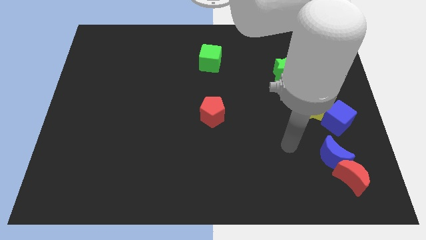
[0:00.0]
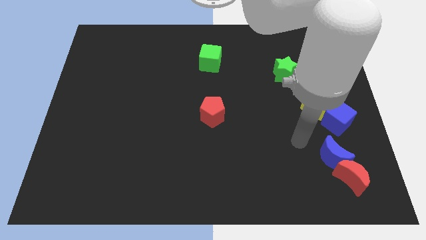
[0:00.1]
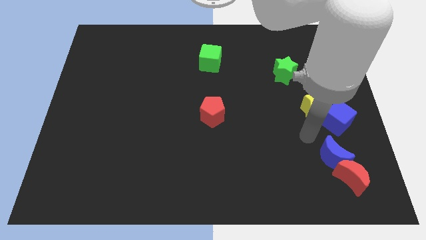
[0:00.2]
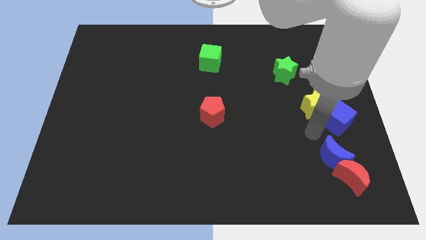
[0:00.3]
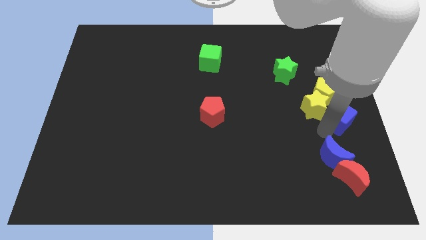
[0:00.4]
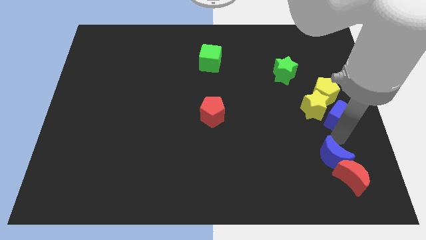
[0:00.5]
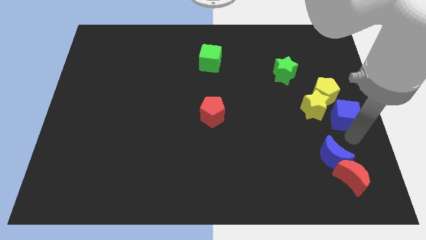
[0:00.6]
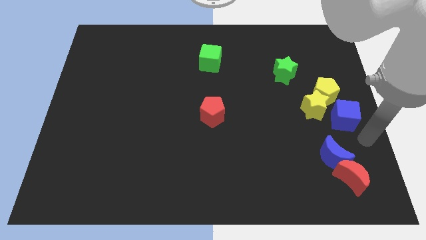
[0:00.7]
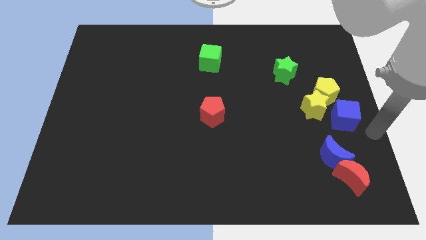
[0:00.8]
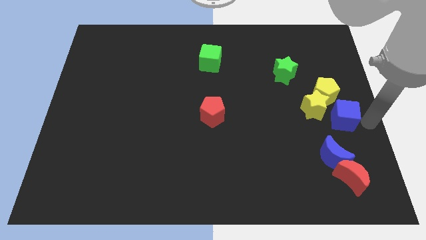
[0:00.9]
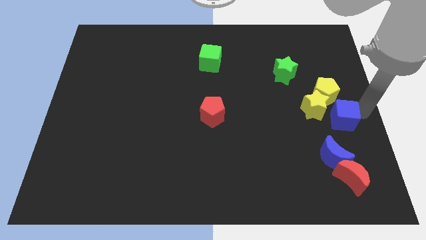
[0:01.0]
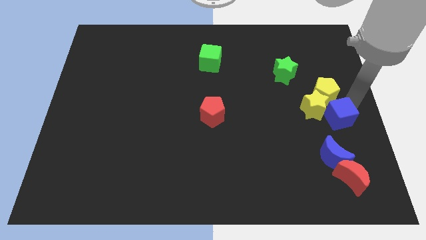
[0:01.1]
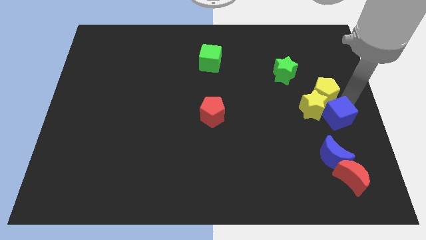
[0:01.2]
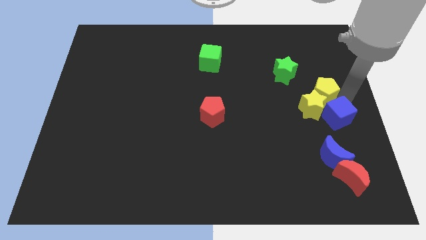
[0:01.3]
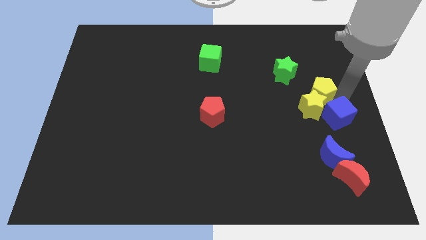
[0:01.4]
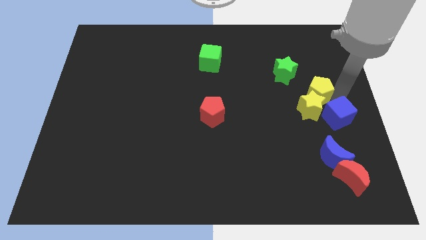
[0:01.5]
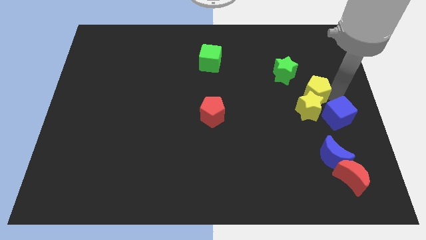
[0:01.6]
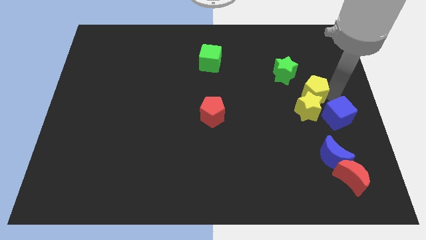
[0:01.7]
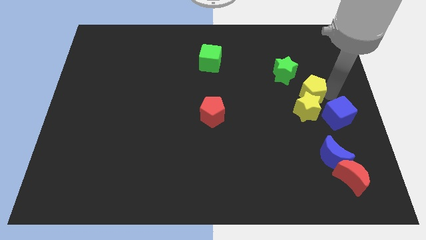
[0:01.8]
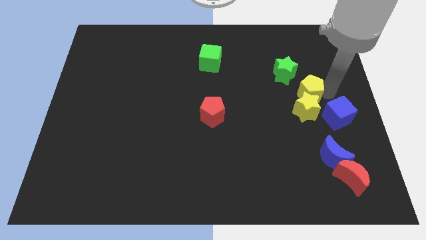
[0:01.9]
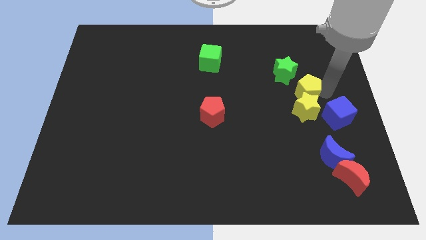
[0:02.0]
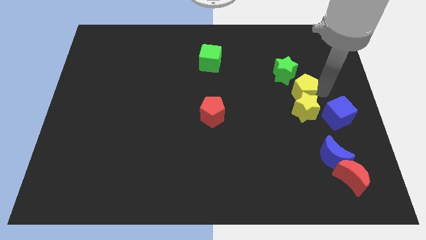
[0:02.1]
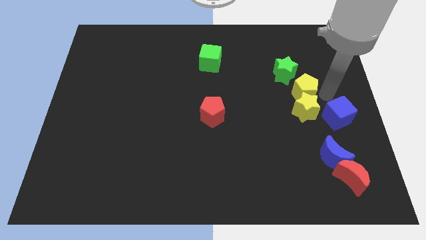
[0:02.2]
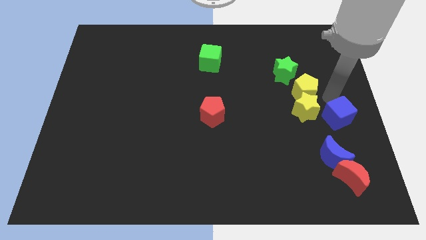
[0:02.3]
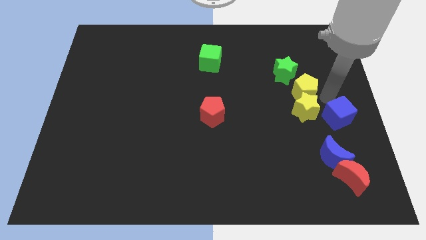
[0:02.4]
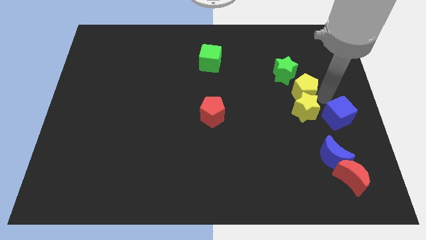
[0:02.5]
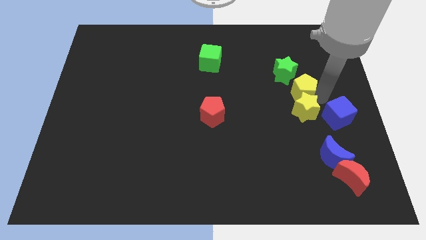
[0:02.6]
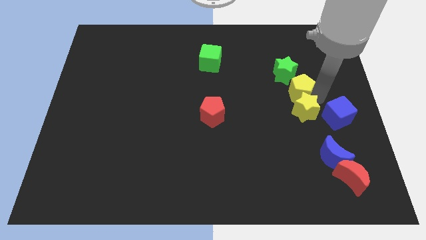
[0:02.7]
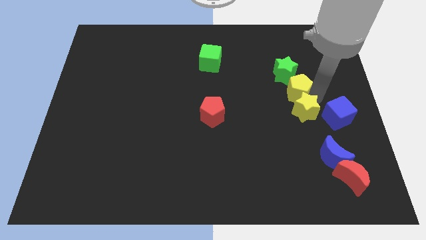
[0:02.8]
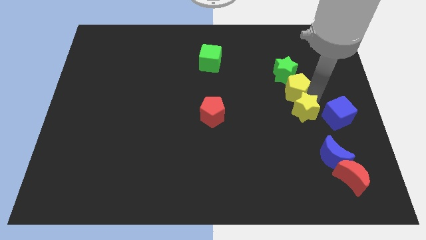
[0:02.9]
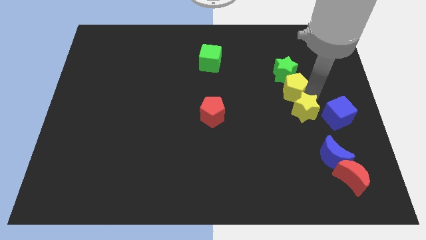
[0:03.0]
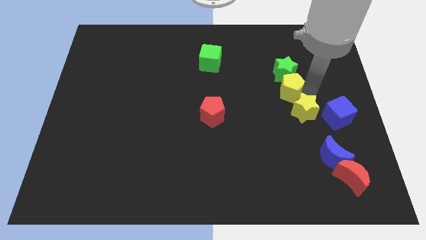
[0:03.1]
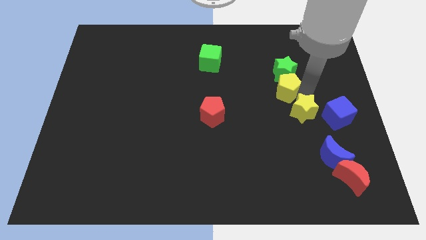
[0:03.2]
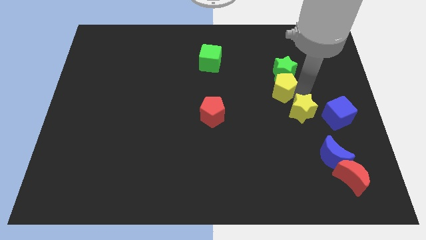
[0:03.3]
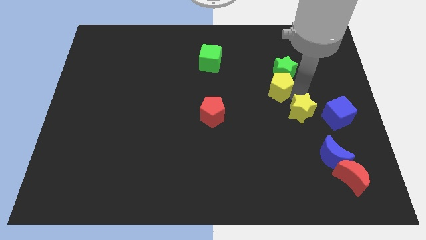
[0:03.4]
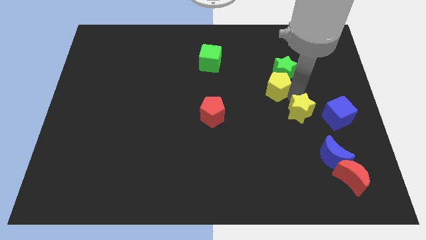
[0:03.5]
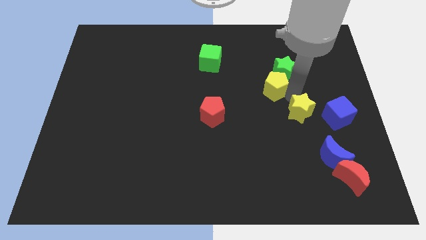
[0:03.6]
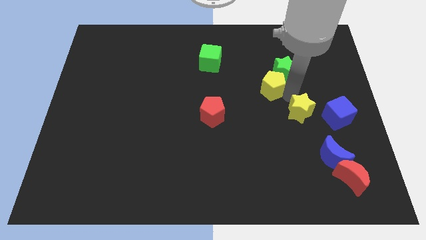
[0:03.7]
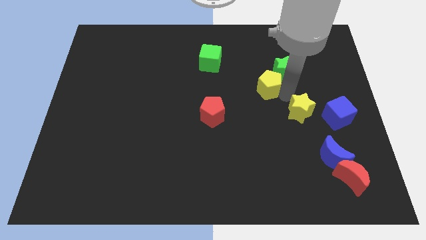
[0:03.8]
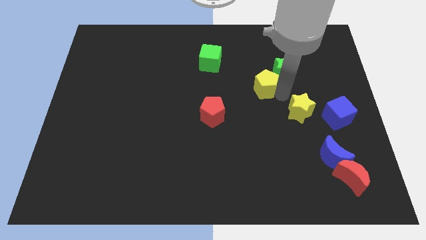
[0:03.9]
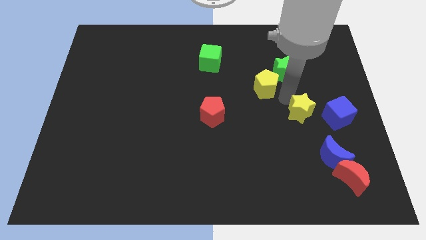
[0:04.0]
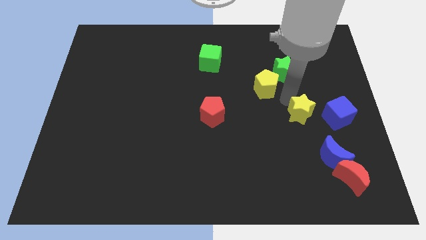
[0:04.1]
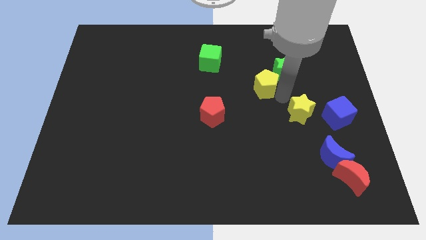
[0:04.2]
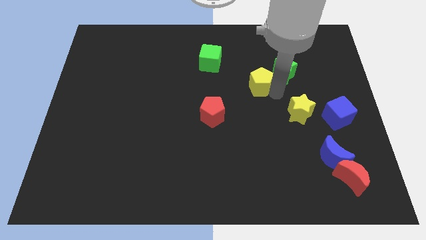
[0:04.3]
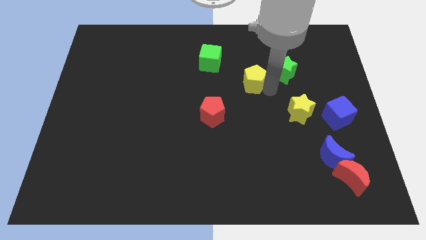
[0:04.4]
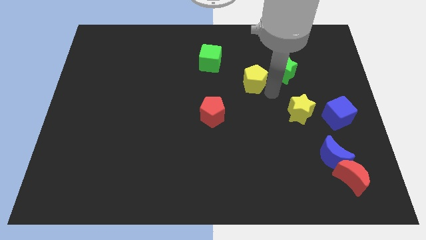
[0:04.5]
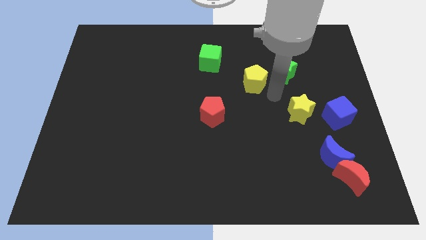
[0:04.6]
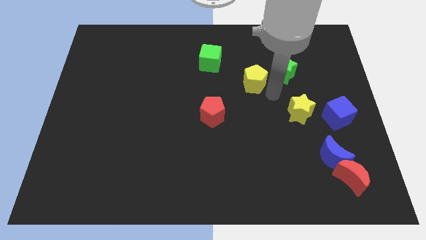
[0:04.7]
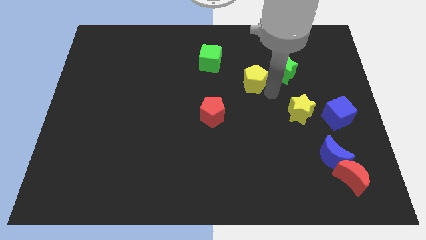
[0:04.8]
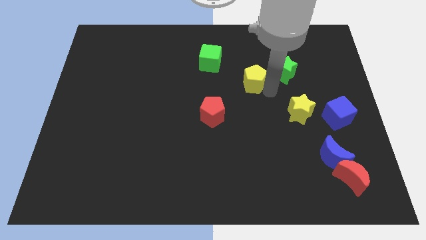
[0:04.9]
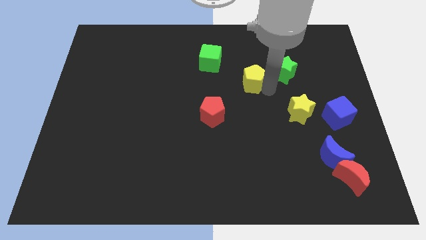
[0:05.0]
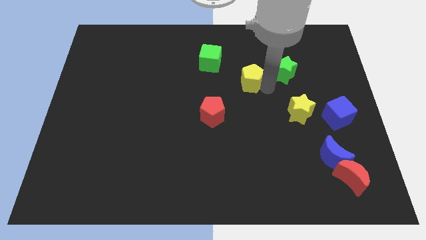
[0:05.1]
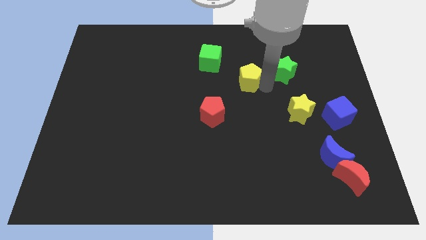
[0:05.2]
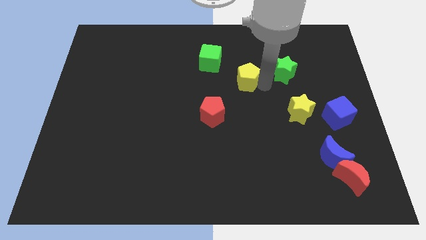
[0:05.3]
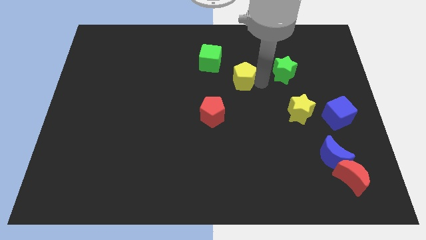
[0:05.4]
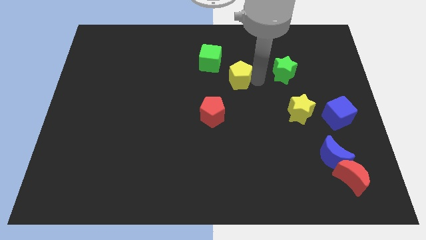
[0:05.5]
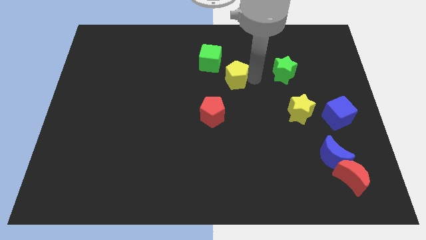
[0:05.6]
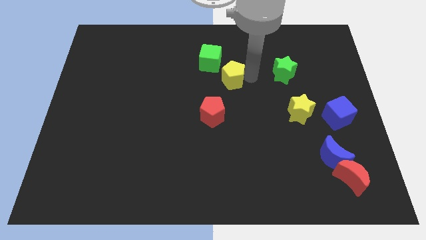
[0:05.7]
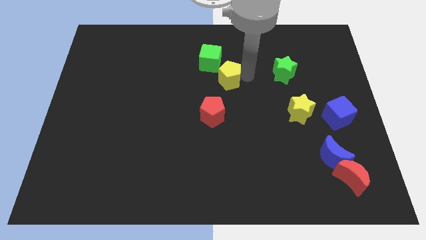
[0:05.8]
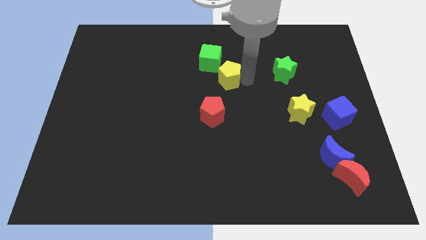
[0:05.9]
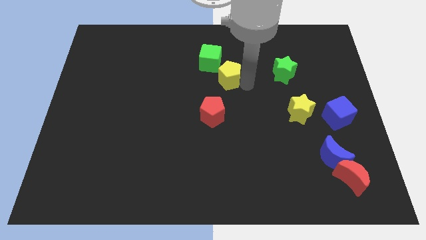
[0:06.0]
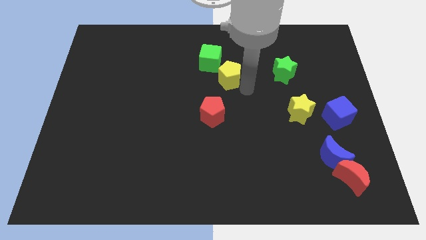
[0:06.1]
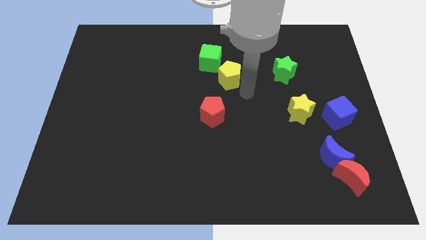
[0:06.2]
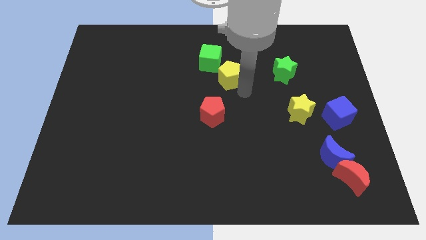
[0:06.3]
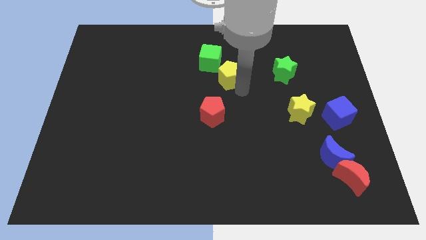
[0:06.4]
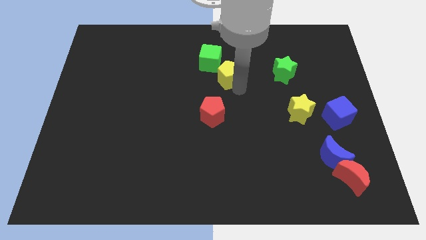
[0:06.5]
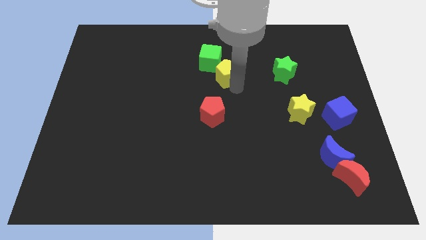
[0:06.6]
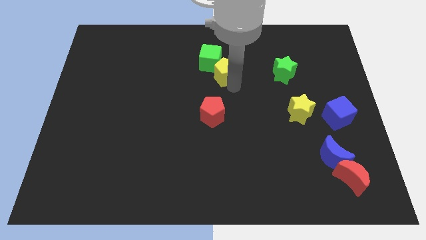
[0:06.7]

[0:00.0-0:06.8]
push the yellow pentagon to the green cube

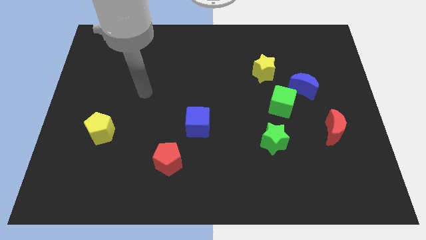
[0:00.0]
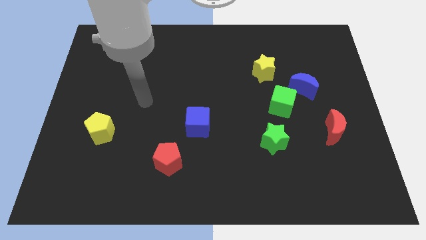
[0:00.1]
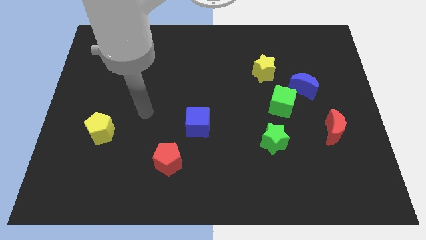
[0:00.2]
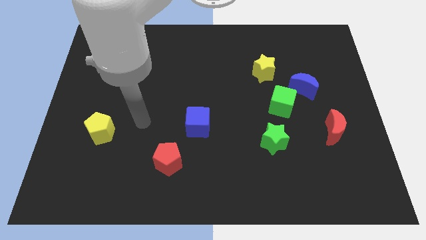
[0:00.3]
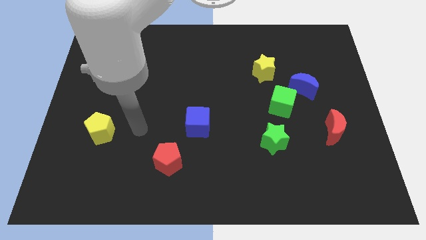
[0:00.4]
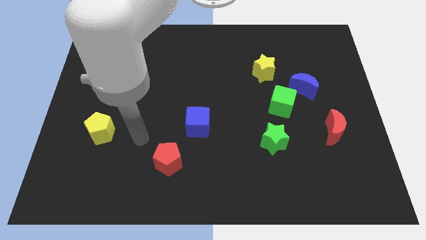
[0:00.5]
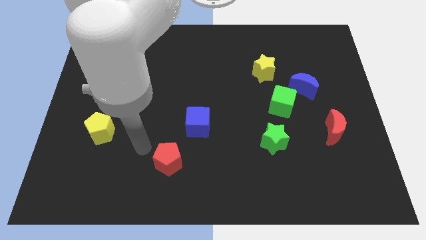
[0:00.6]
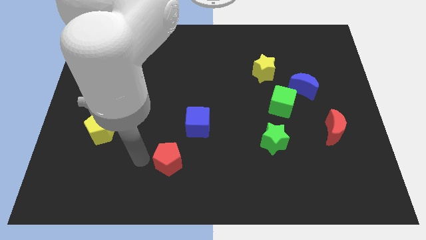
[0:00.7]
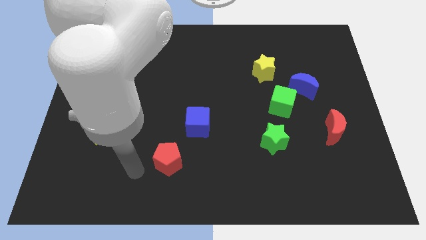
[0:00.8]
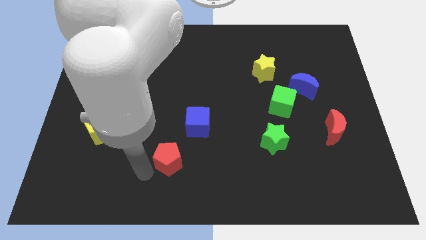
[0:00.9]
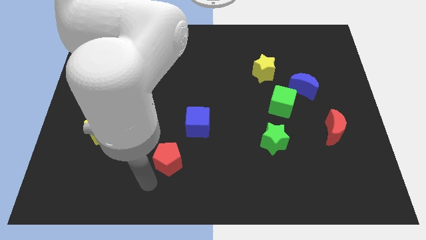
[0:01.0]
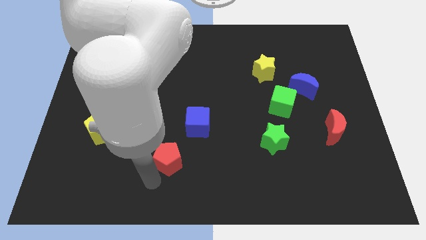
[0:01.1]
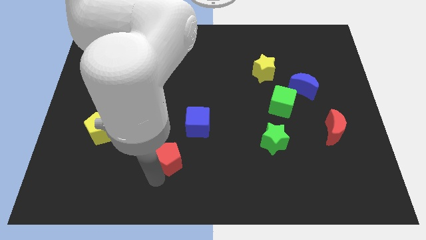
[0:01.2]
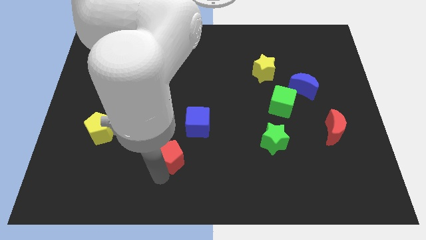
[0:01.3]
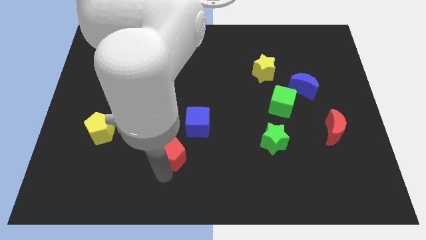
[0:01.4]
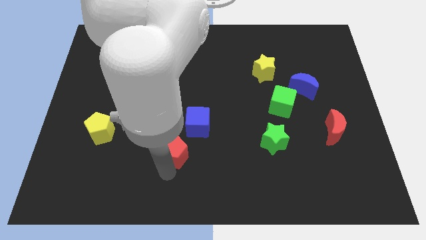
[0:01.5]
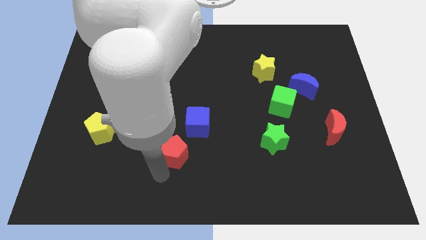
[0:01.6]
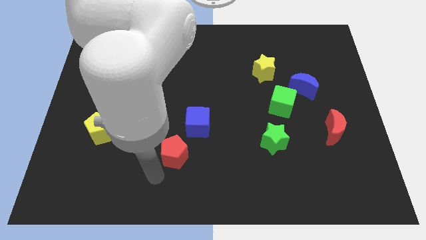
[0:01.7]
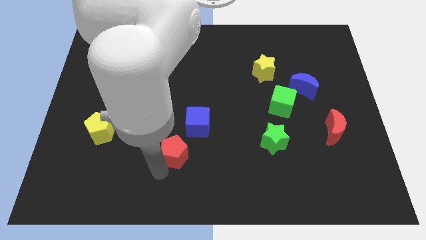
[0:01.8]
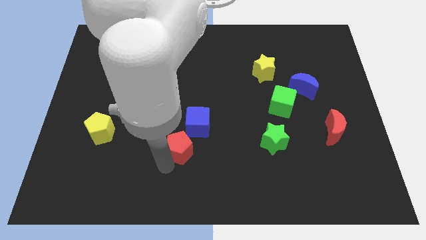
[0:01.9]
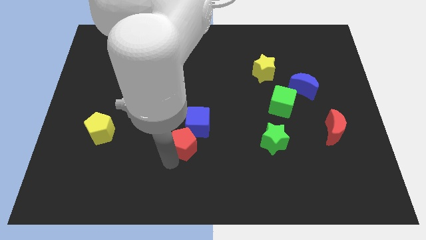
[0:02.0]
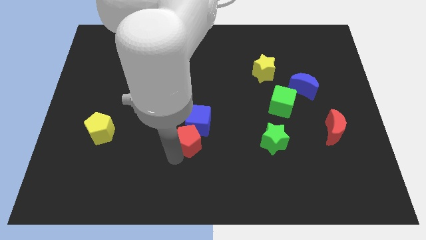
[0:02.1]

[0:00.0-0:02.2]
put the red pentagon close to the blue cube
